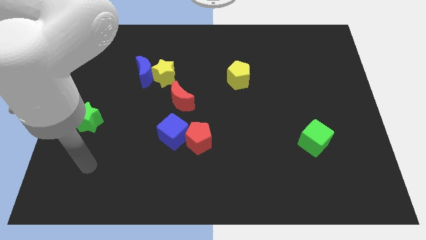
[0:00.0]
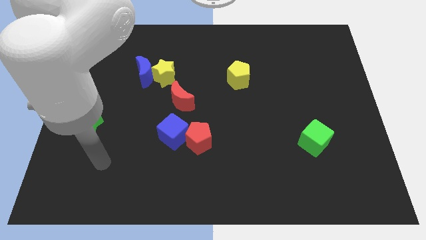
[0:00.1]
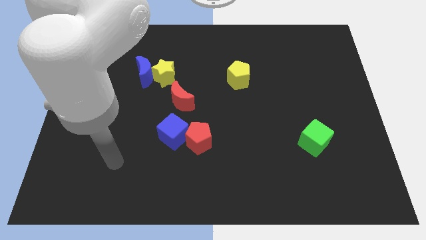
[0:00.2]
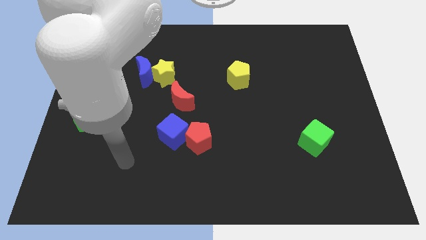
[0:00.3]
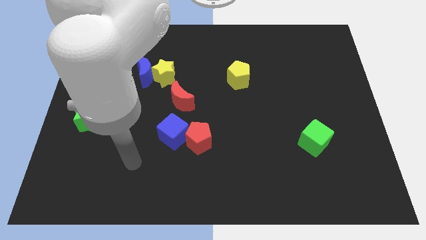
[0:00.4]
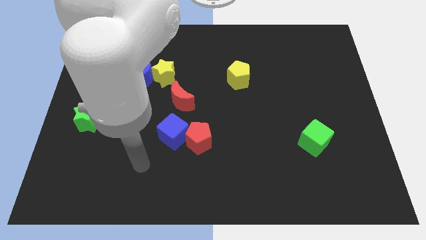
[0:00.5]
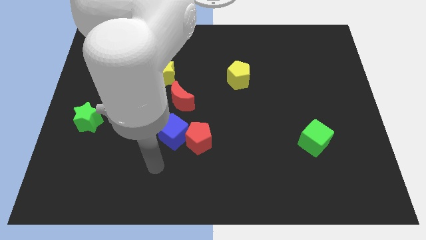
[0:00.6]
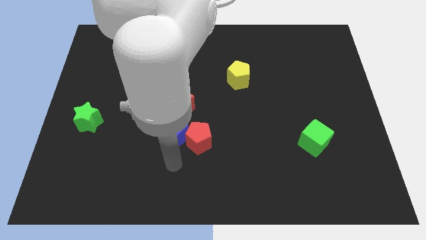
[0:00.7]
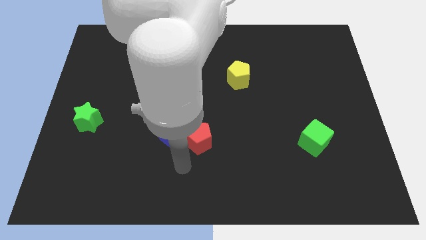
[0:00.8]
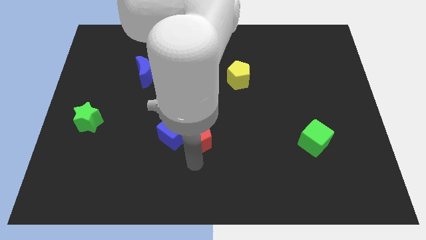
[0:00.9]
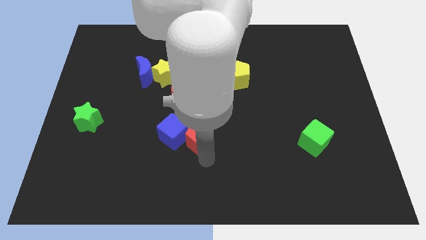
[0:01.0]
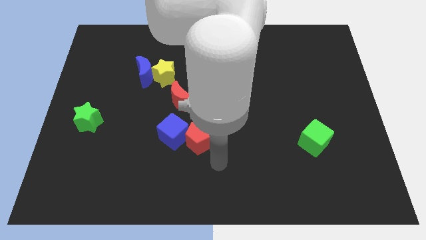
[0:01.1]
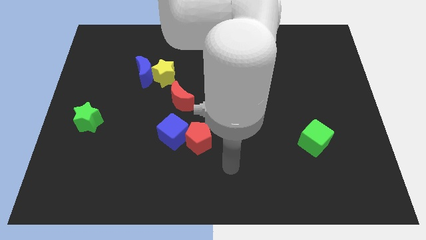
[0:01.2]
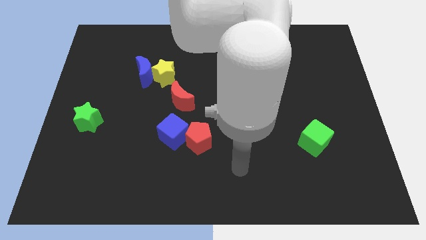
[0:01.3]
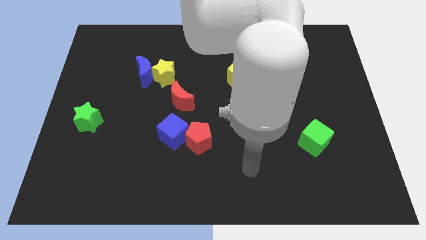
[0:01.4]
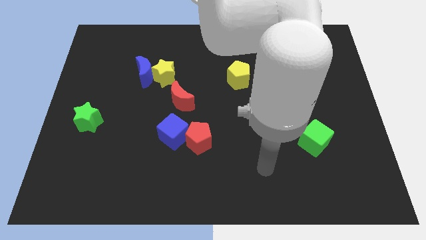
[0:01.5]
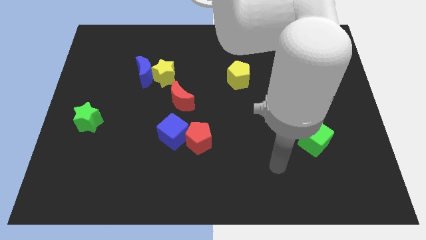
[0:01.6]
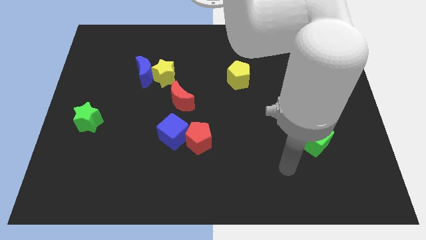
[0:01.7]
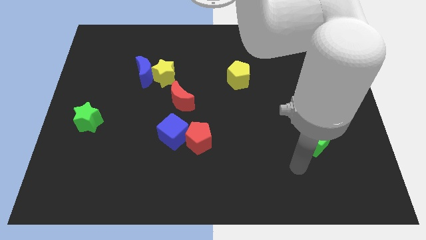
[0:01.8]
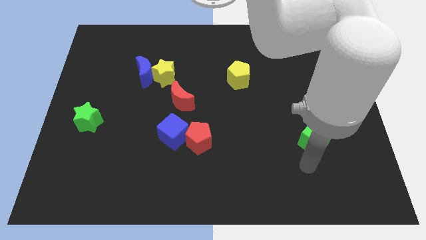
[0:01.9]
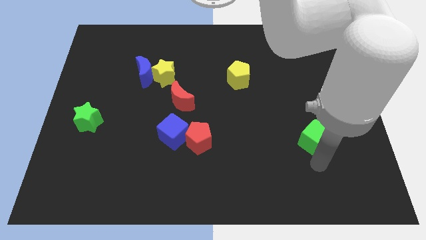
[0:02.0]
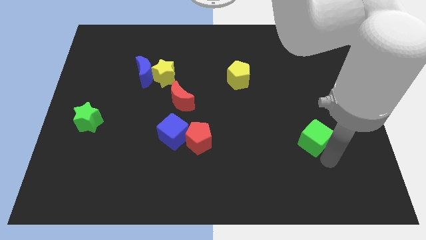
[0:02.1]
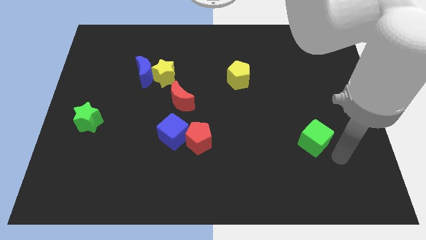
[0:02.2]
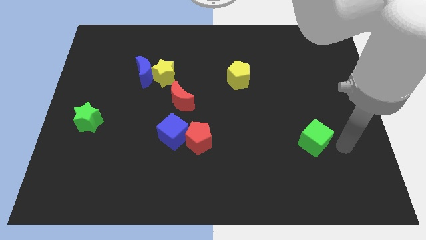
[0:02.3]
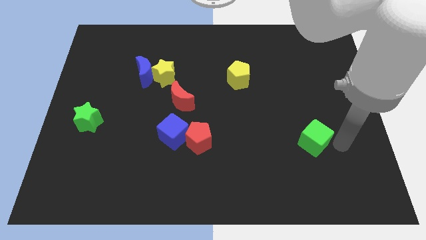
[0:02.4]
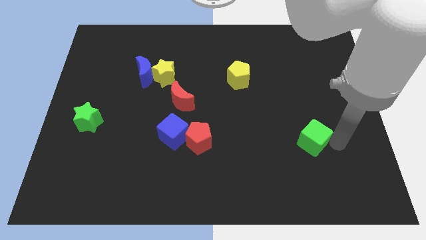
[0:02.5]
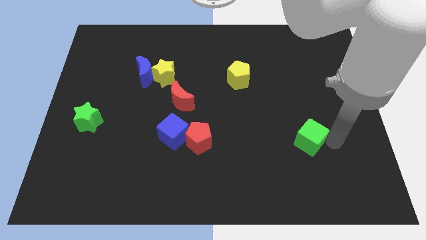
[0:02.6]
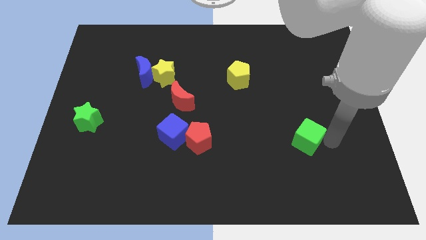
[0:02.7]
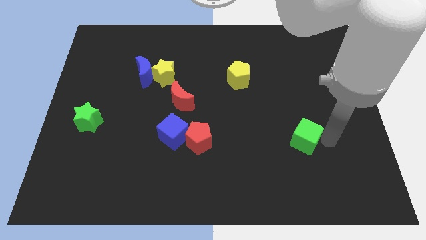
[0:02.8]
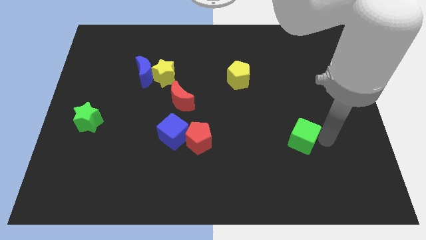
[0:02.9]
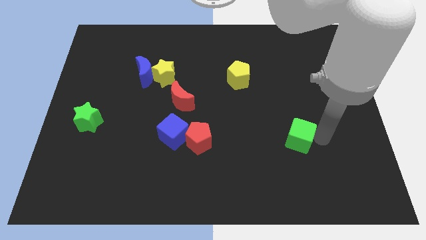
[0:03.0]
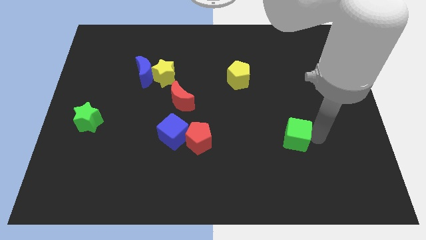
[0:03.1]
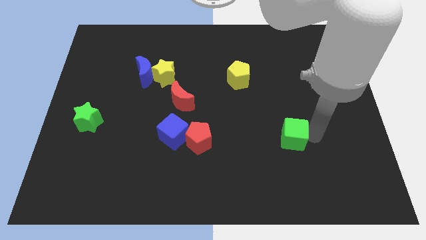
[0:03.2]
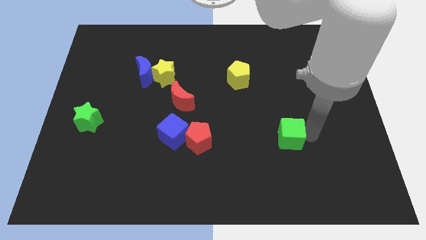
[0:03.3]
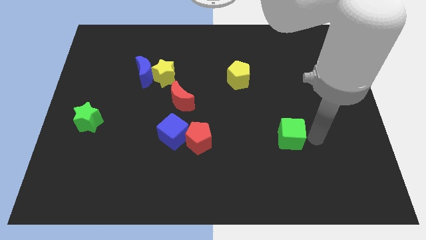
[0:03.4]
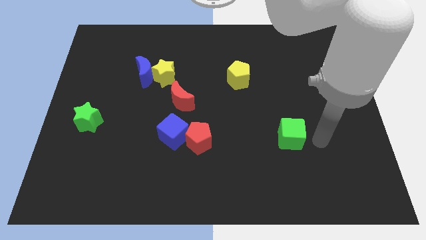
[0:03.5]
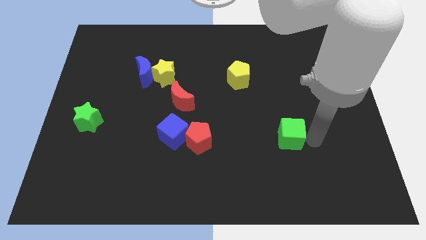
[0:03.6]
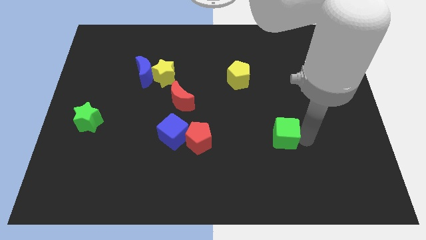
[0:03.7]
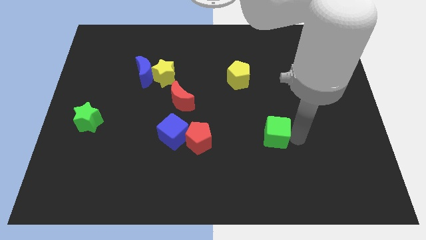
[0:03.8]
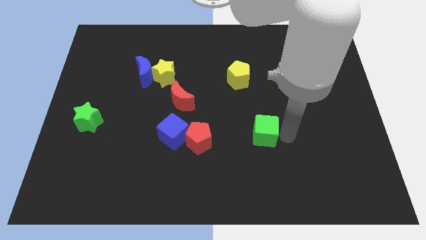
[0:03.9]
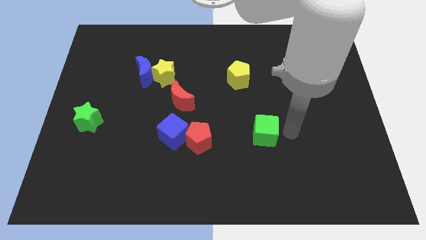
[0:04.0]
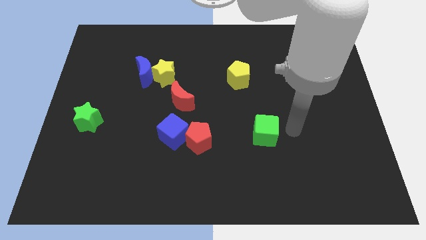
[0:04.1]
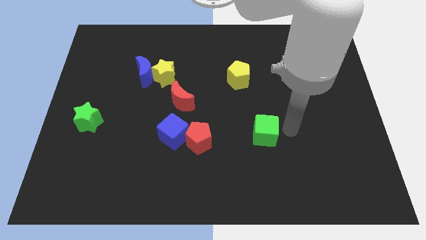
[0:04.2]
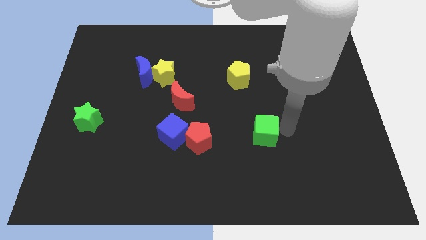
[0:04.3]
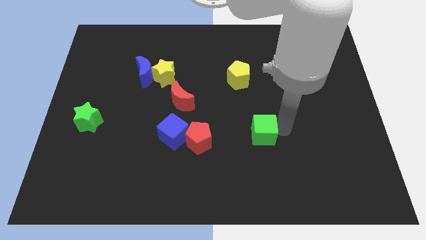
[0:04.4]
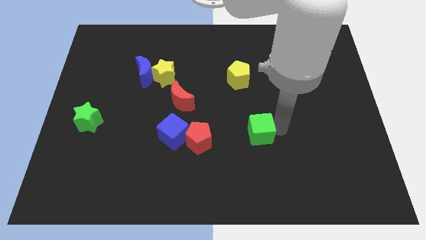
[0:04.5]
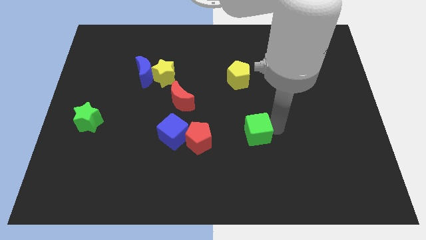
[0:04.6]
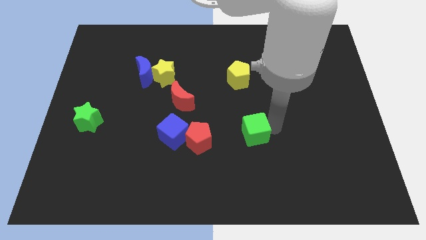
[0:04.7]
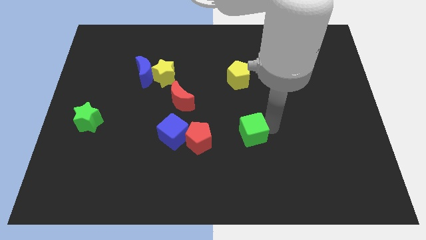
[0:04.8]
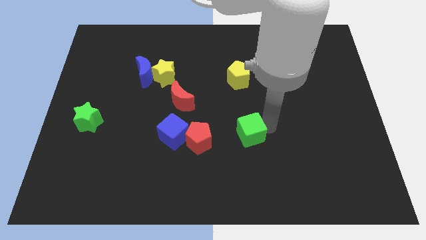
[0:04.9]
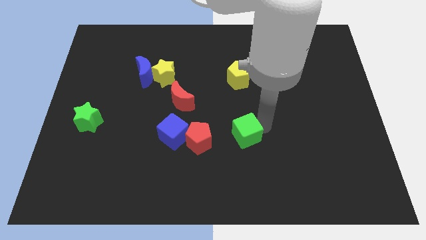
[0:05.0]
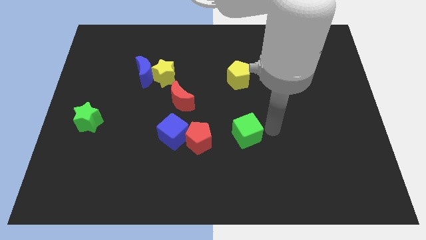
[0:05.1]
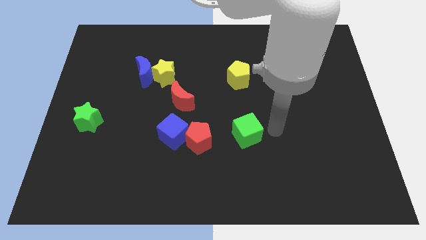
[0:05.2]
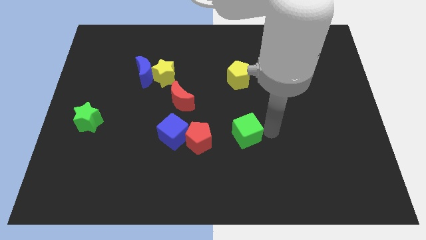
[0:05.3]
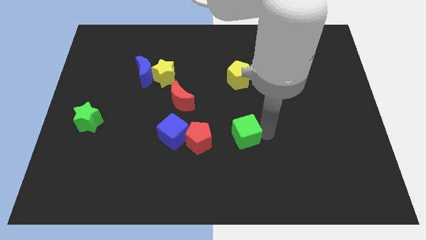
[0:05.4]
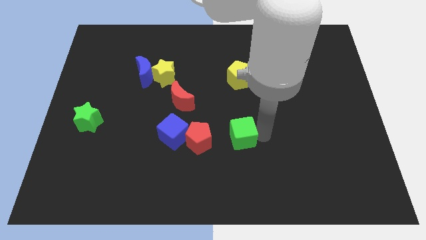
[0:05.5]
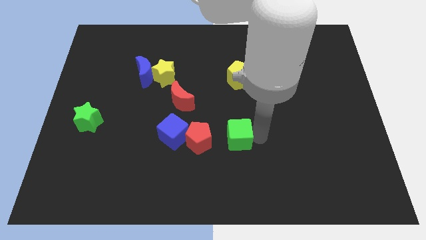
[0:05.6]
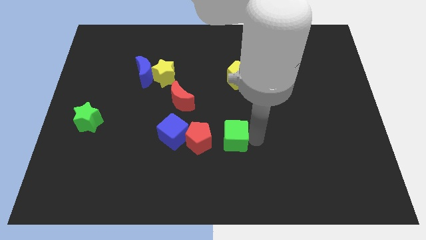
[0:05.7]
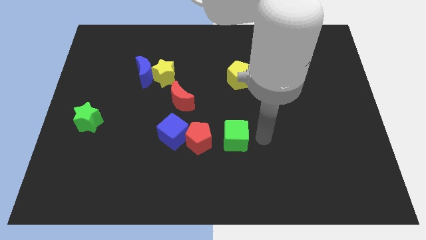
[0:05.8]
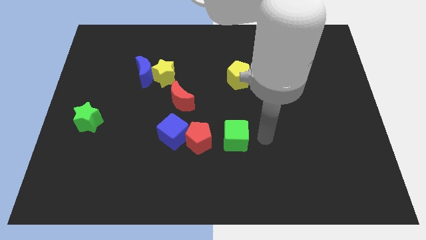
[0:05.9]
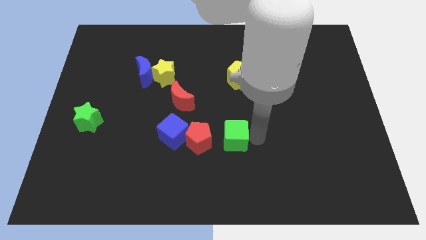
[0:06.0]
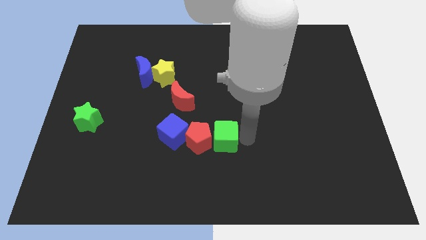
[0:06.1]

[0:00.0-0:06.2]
put the green cube close to the red pentagon

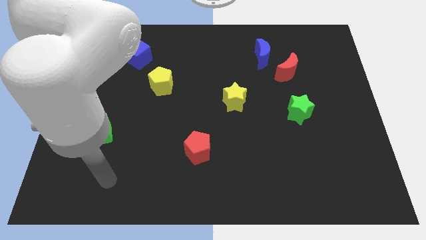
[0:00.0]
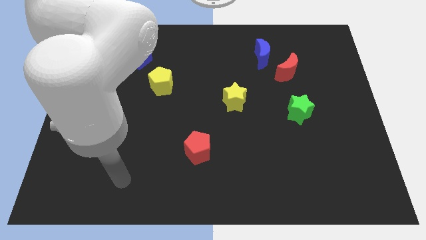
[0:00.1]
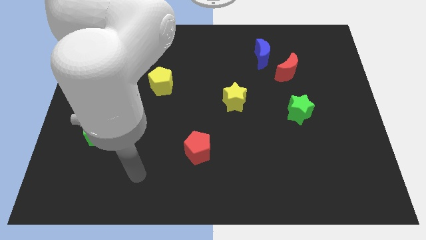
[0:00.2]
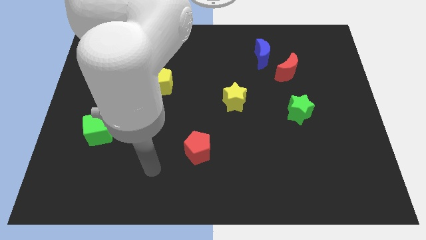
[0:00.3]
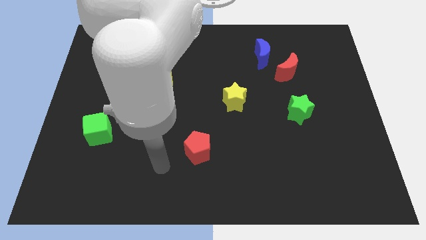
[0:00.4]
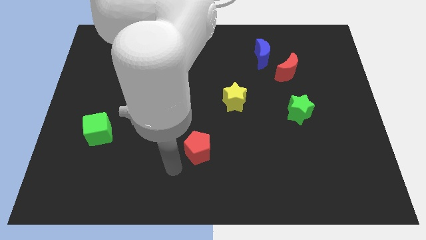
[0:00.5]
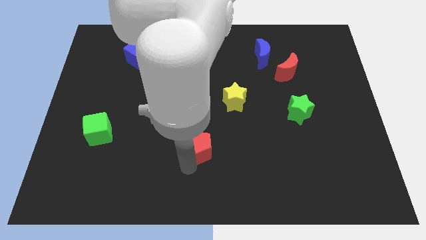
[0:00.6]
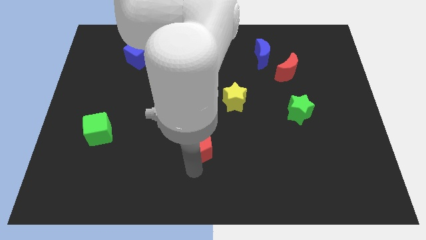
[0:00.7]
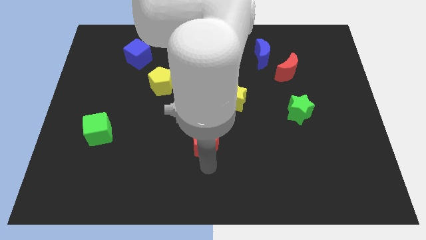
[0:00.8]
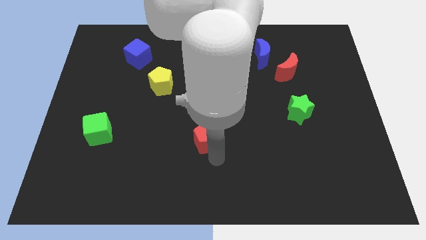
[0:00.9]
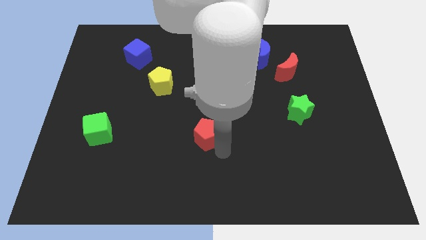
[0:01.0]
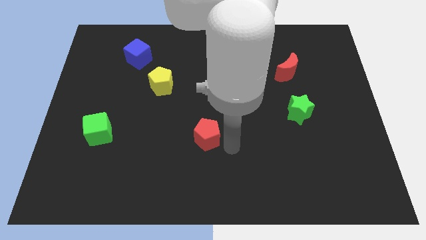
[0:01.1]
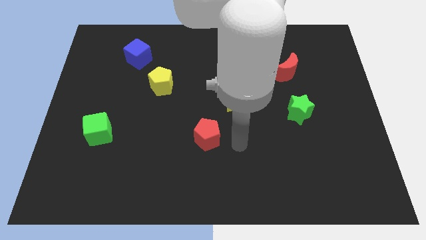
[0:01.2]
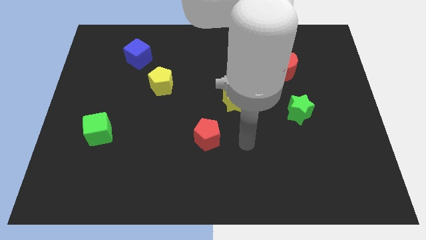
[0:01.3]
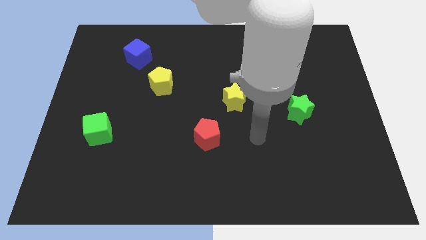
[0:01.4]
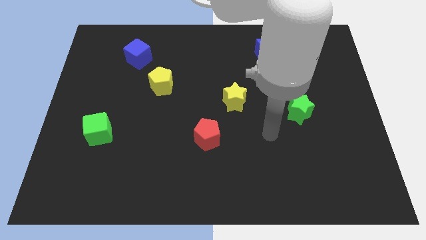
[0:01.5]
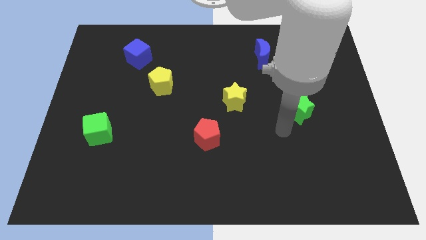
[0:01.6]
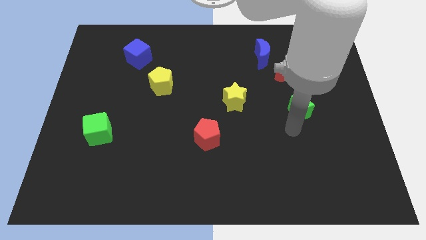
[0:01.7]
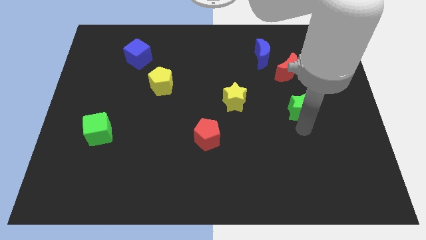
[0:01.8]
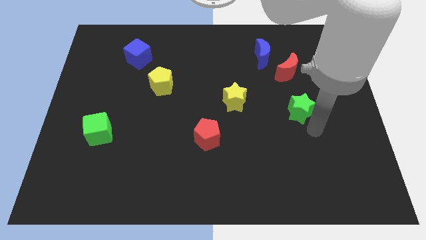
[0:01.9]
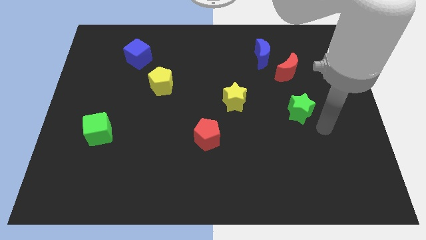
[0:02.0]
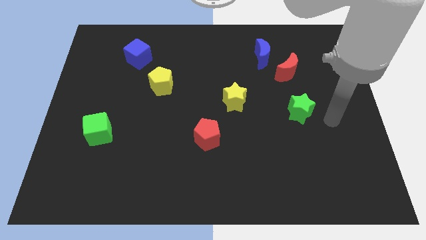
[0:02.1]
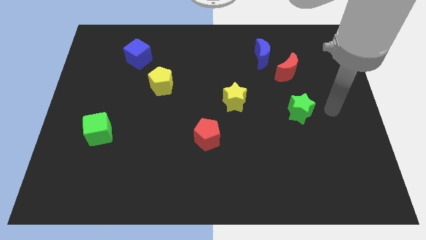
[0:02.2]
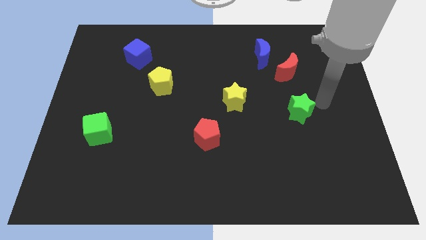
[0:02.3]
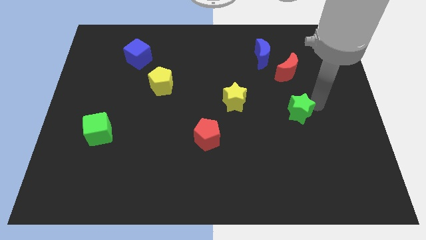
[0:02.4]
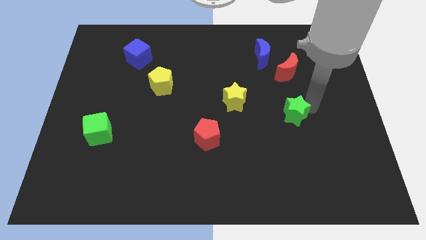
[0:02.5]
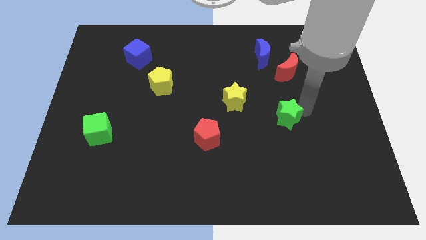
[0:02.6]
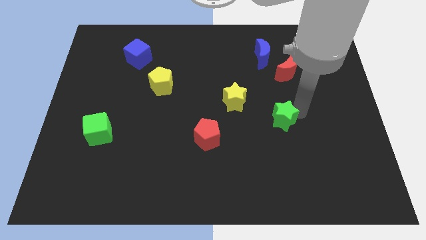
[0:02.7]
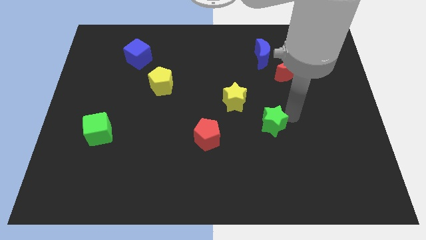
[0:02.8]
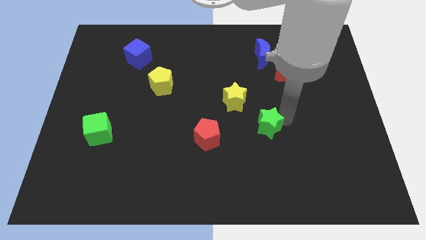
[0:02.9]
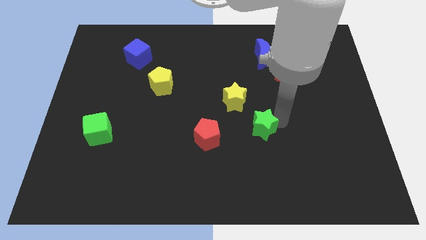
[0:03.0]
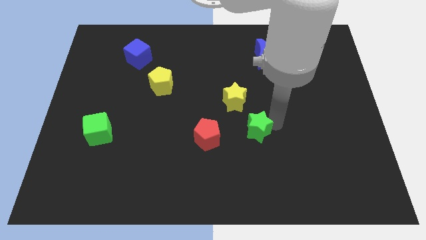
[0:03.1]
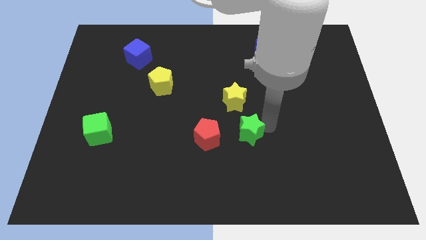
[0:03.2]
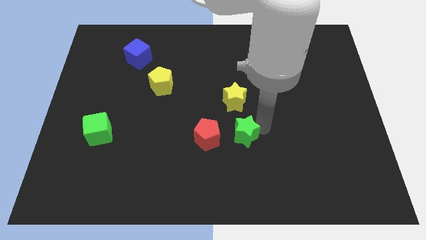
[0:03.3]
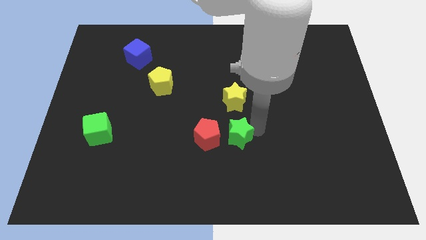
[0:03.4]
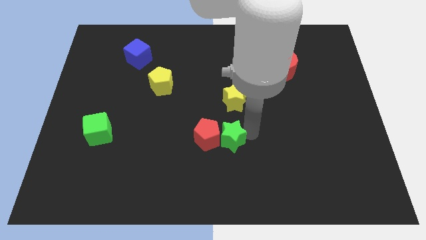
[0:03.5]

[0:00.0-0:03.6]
put the green star next to the red pentagon
